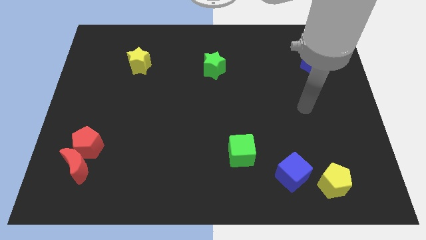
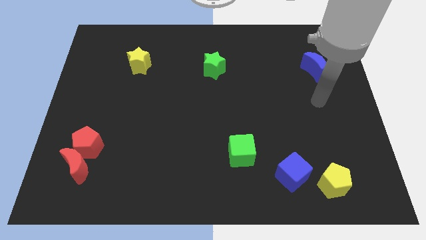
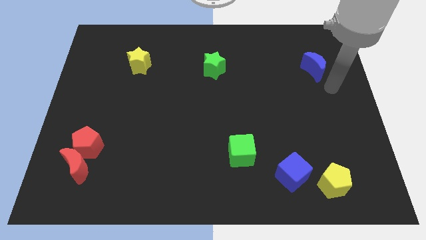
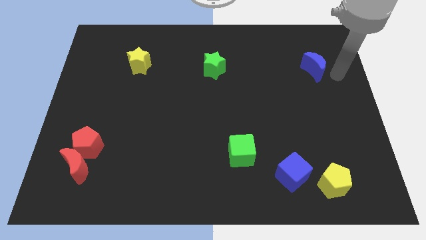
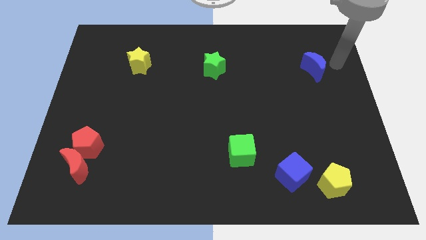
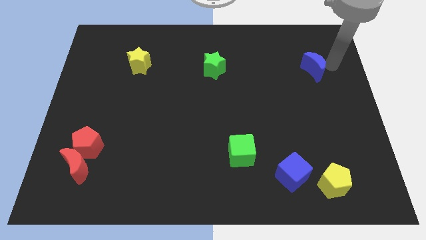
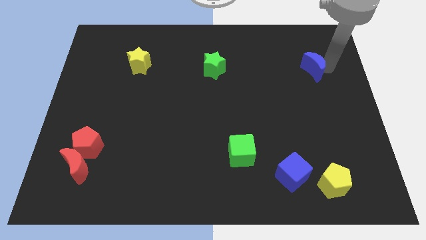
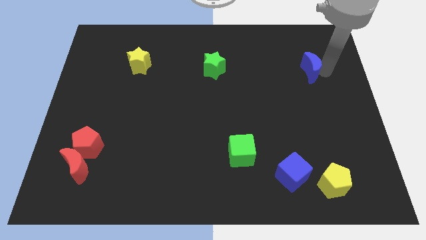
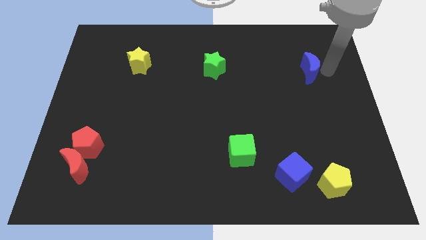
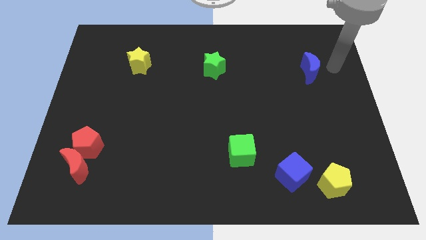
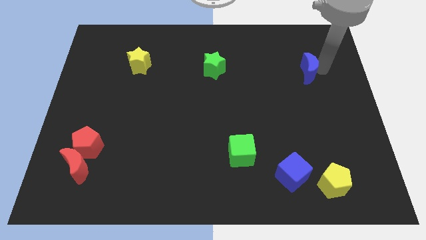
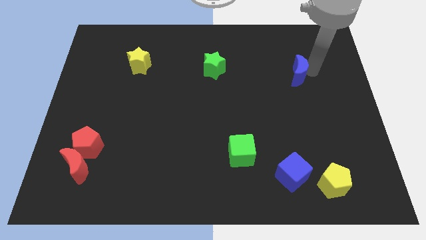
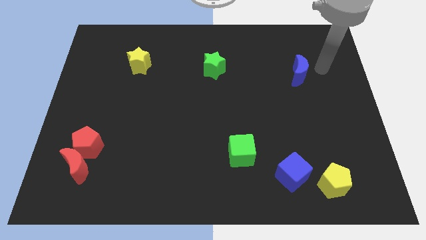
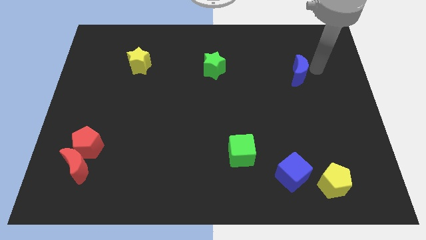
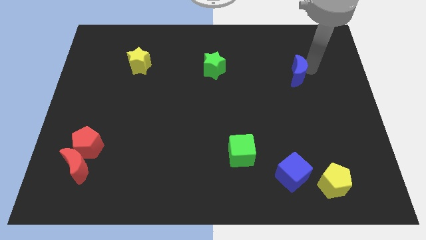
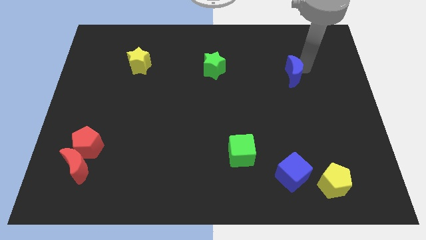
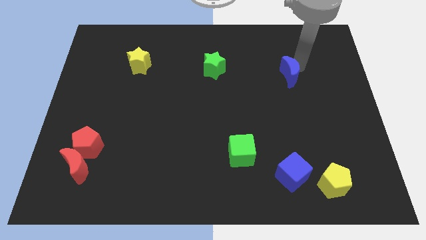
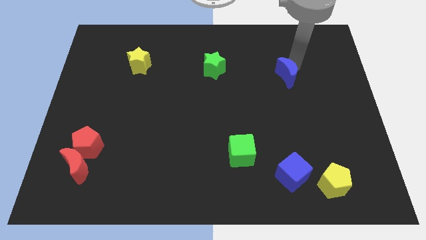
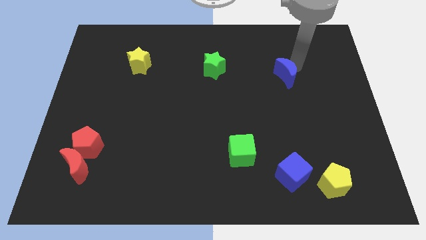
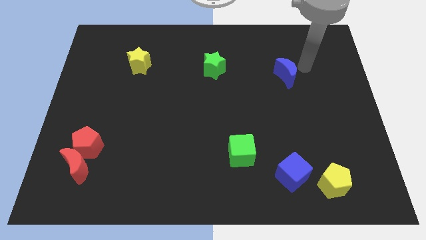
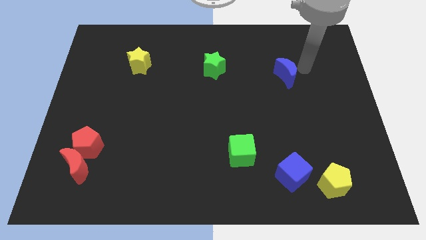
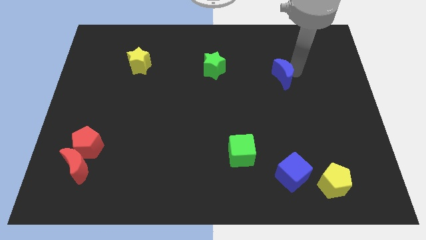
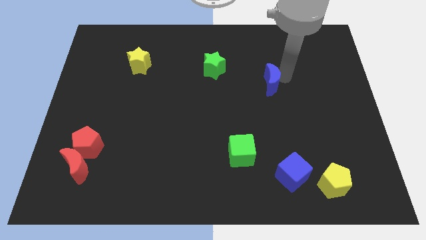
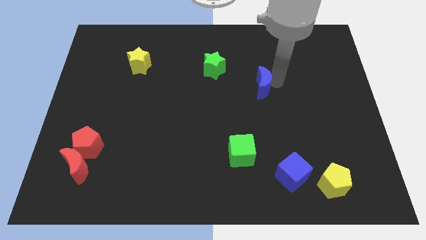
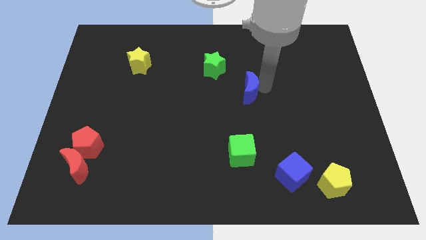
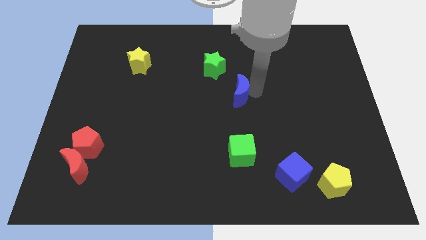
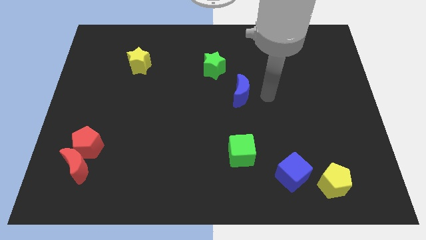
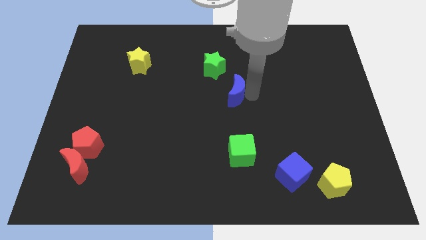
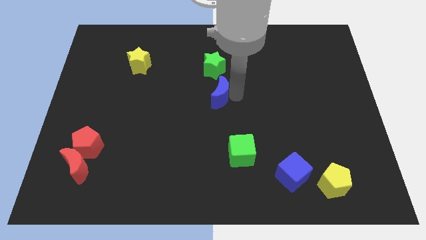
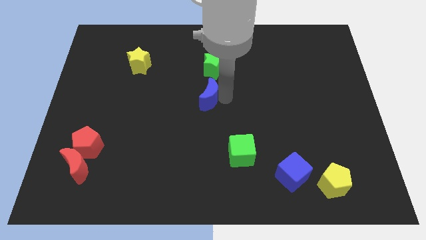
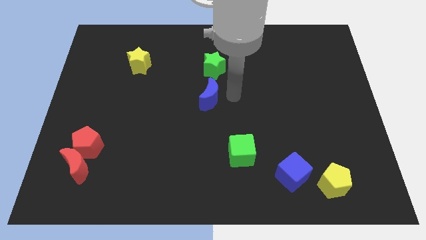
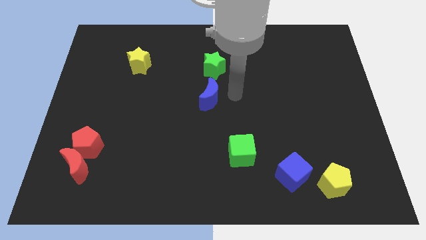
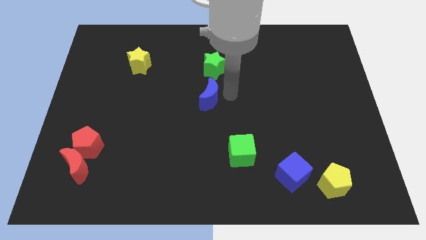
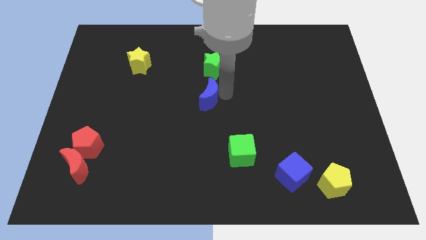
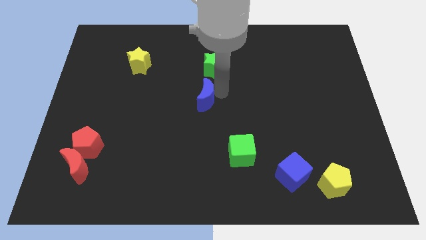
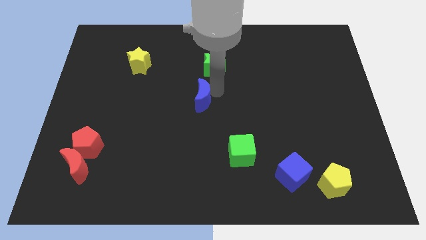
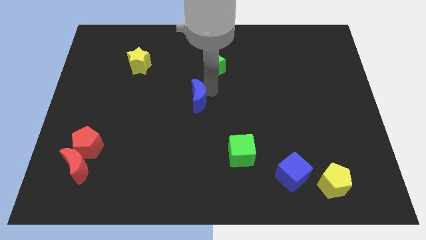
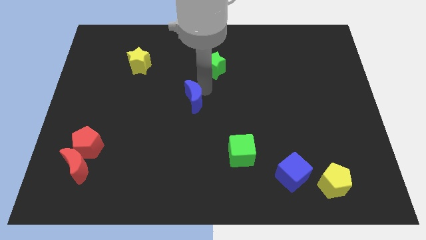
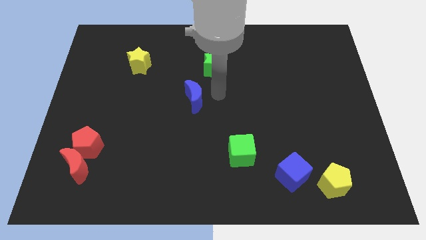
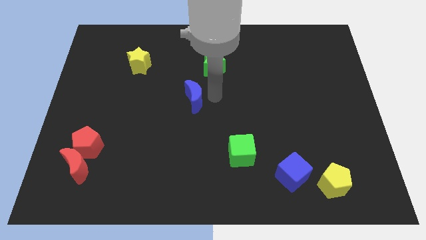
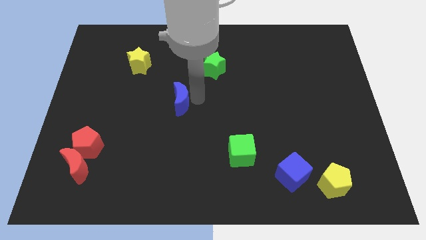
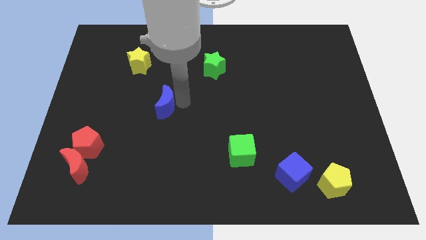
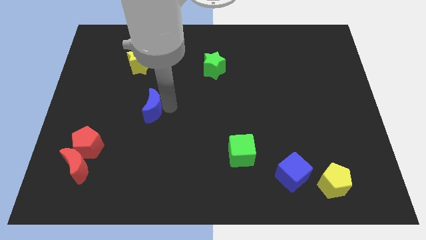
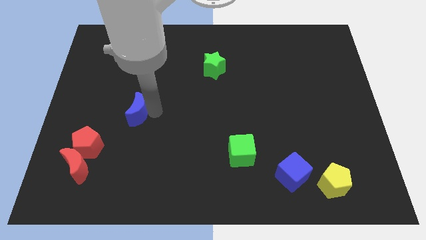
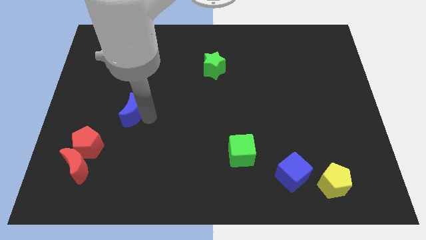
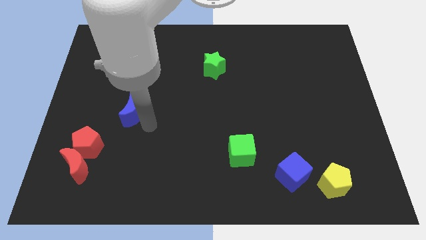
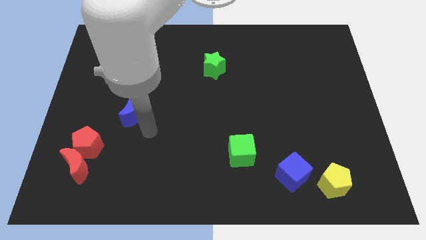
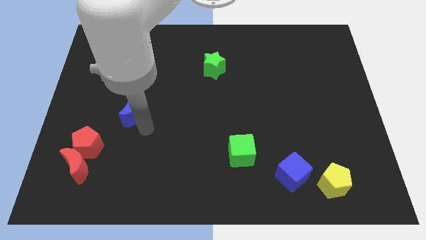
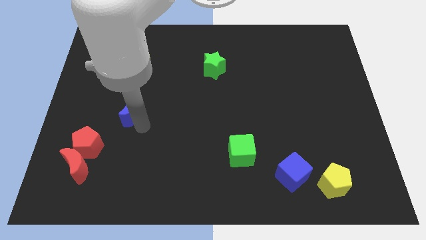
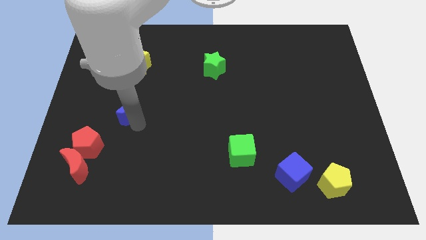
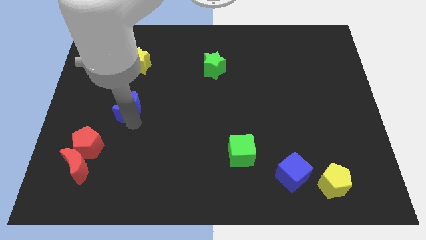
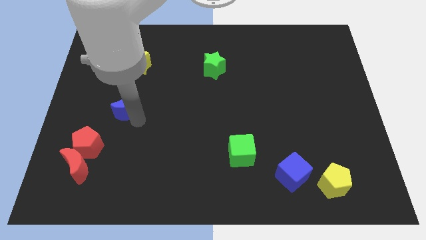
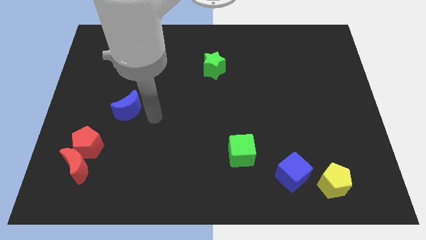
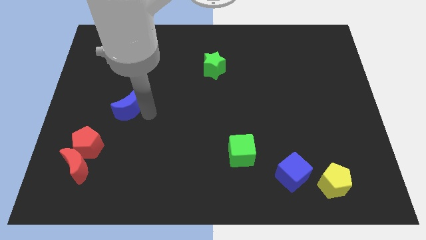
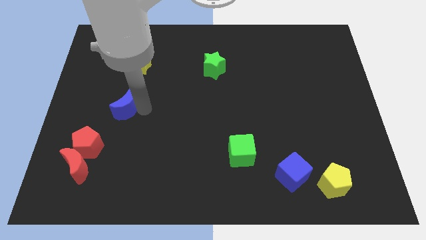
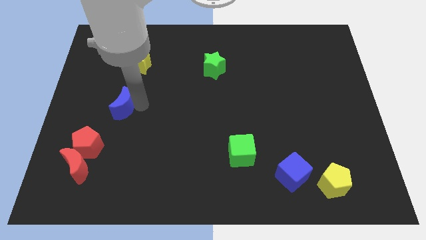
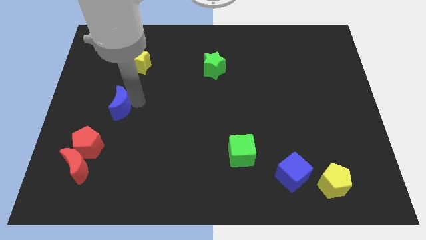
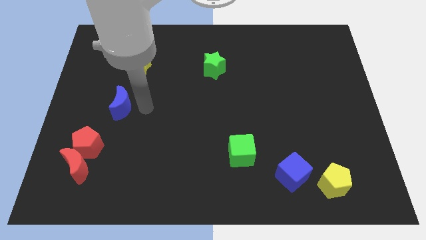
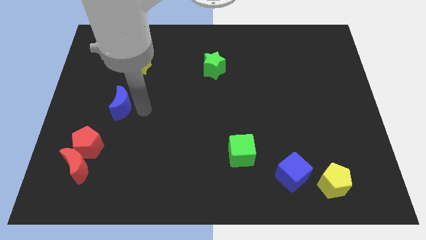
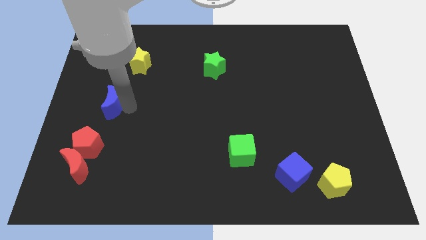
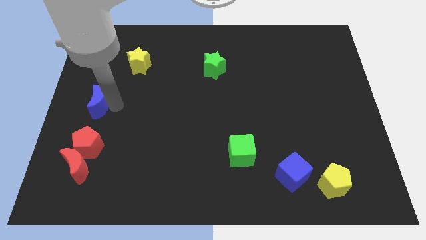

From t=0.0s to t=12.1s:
put the blue moon to the left side

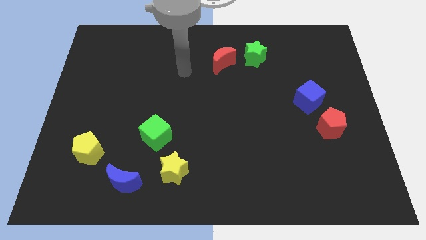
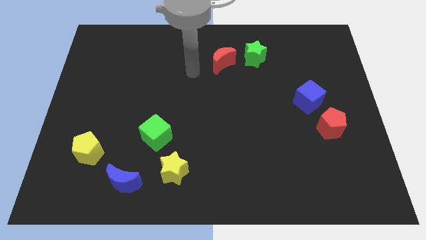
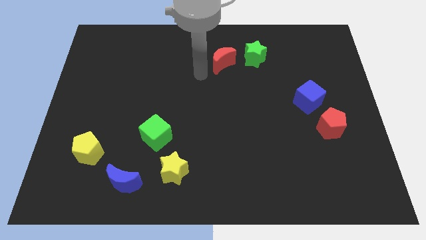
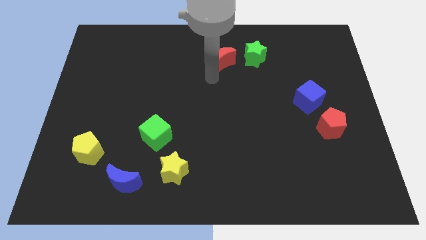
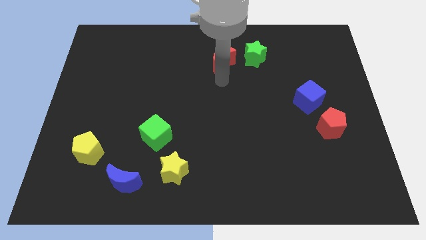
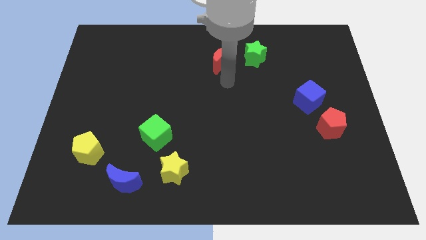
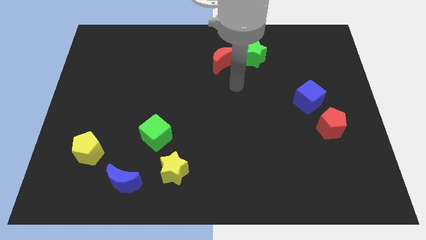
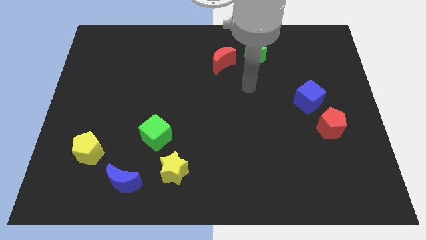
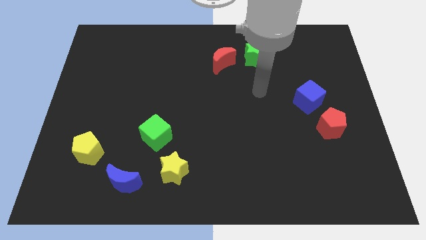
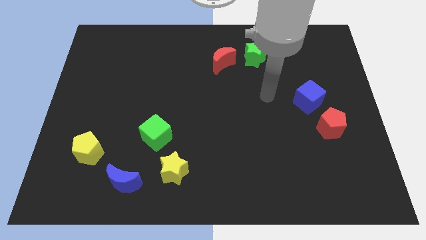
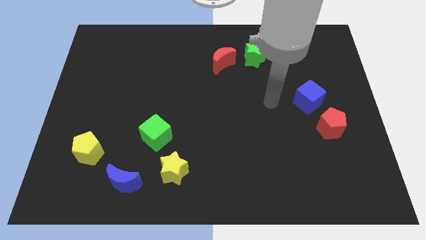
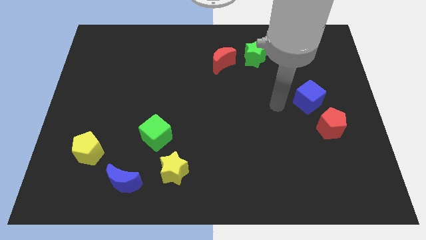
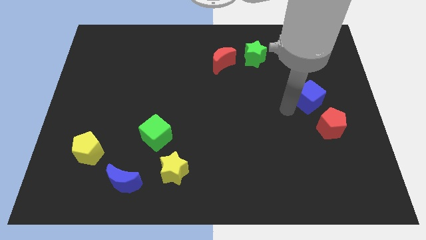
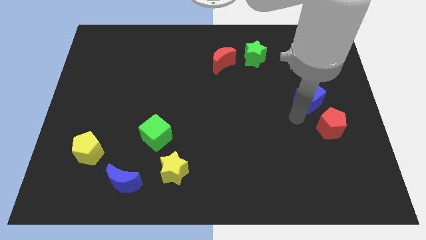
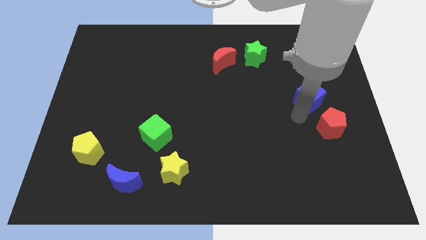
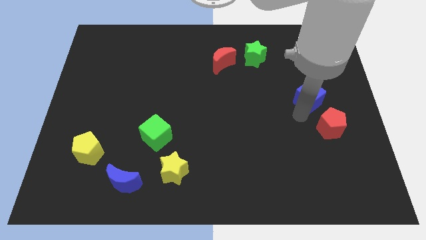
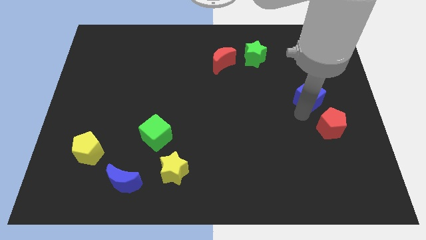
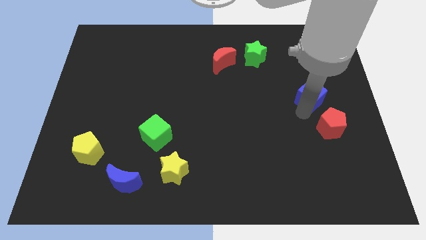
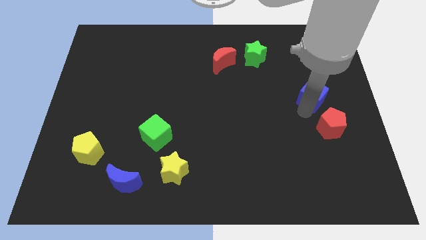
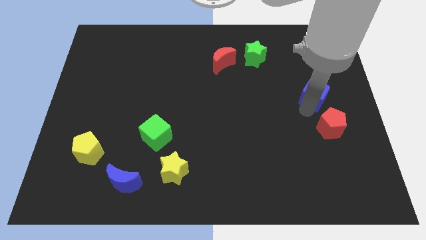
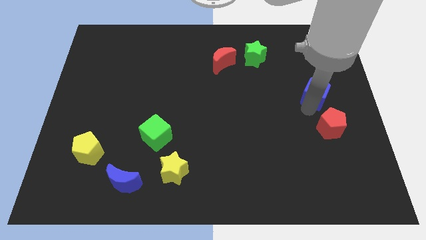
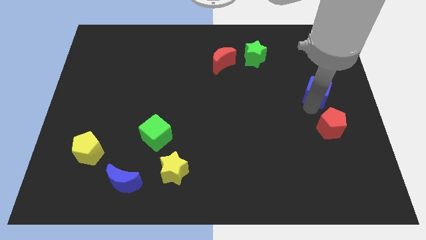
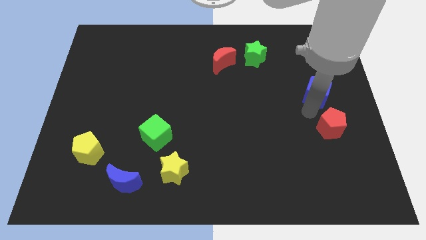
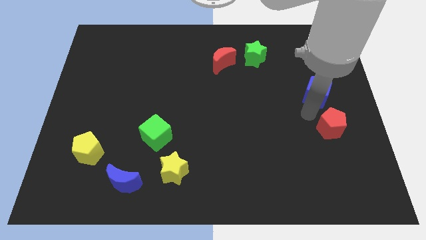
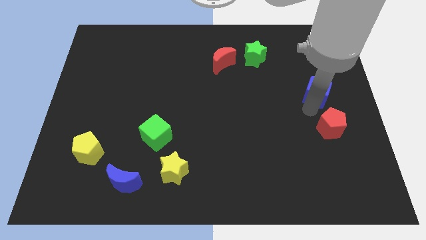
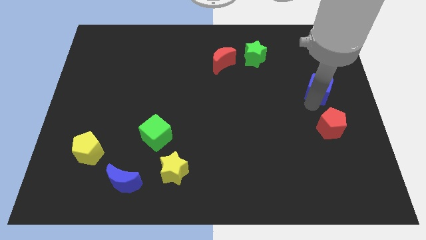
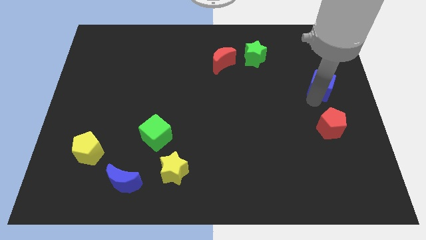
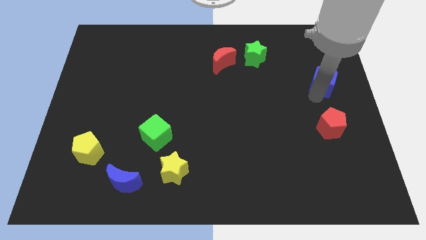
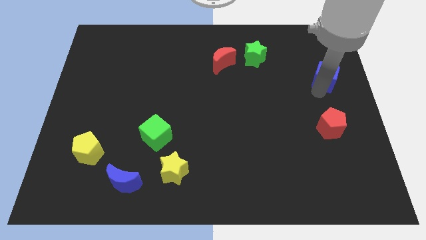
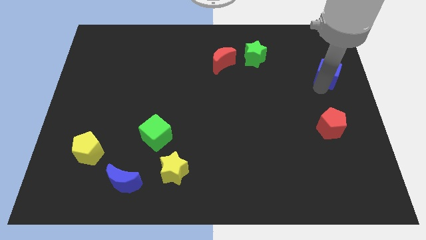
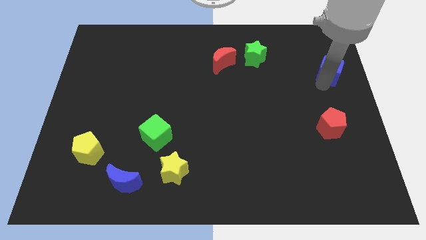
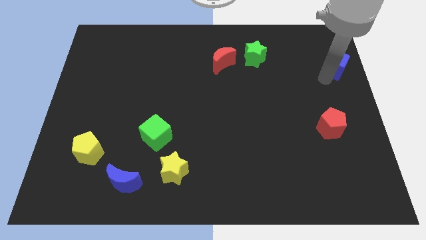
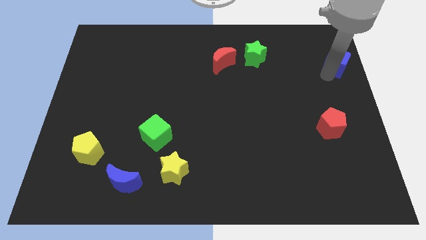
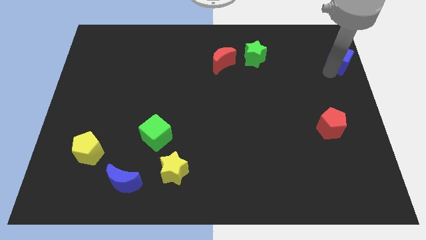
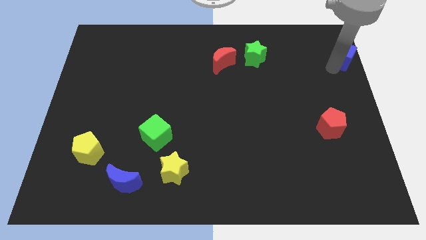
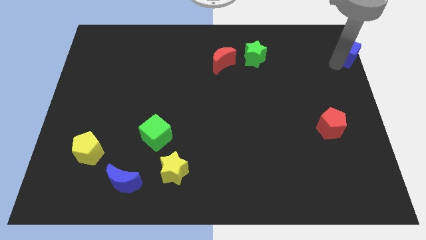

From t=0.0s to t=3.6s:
push the blue cube to the top right corner
